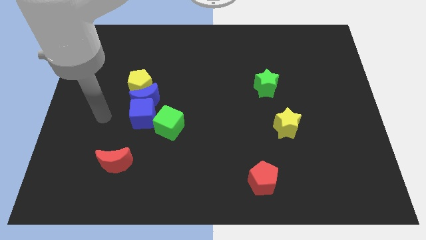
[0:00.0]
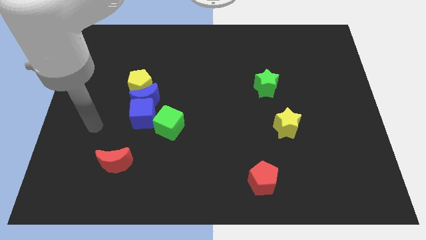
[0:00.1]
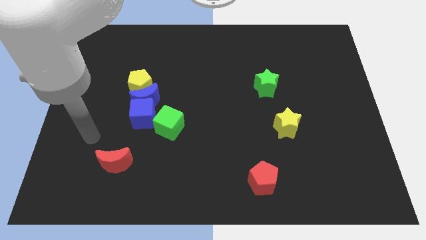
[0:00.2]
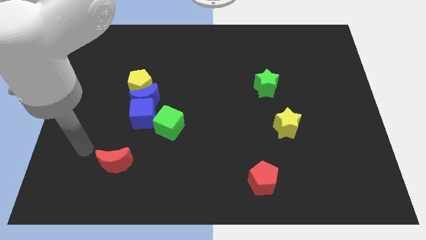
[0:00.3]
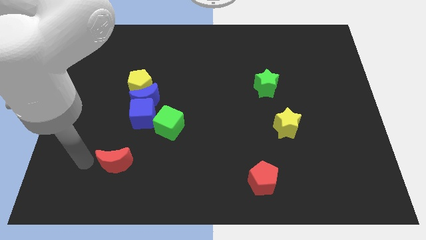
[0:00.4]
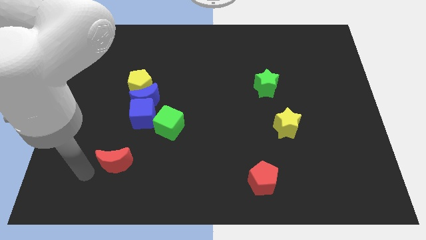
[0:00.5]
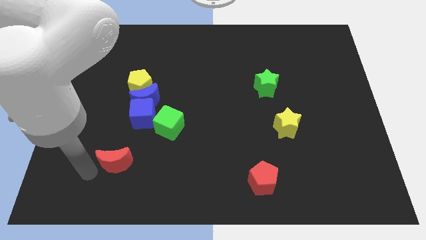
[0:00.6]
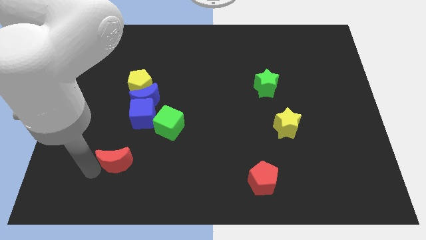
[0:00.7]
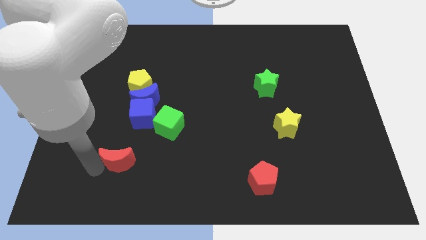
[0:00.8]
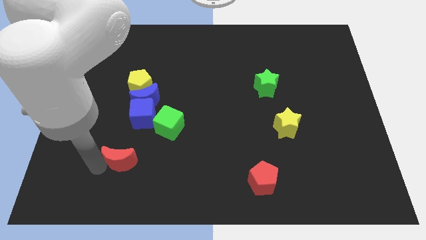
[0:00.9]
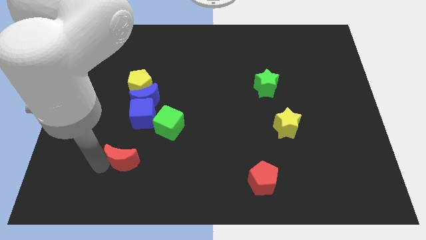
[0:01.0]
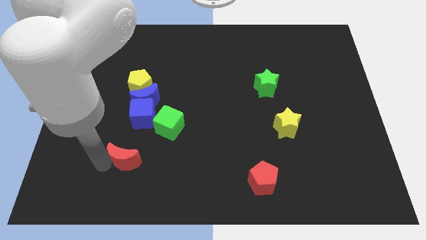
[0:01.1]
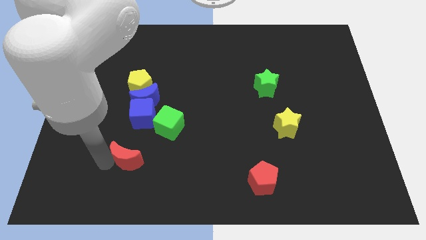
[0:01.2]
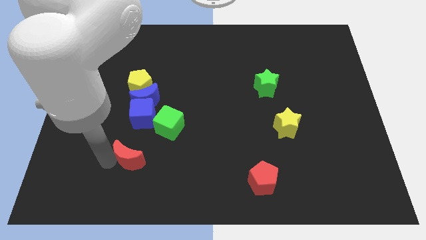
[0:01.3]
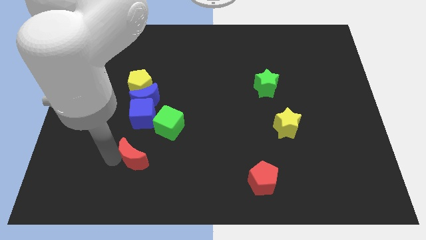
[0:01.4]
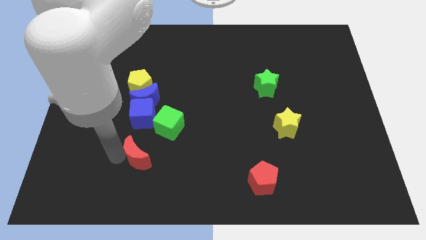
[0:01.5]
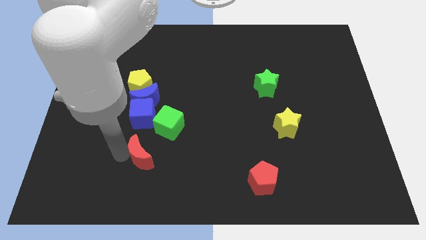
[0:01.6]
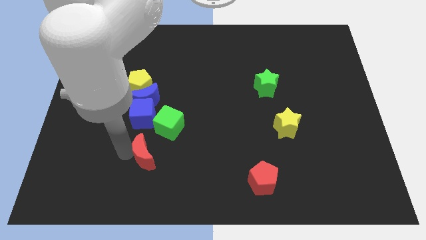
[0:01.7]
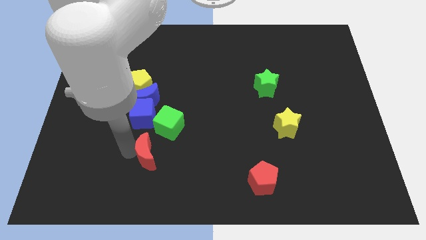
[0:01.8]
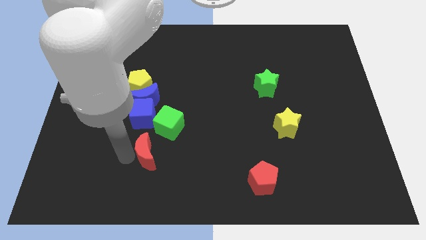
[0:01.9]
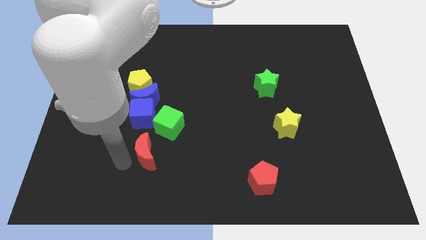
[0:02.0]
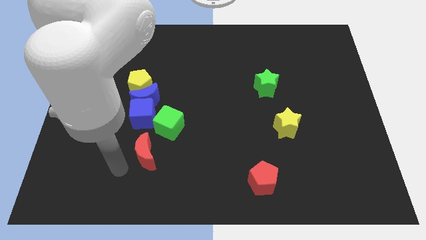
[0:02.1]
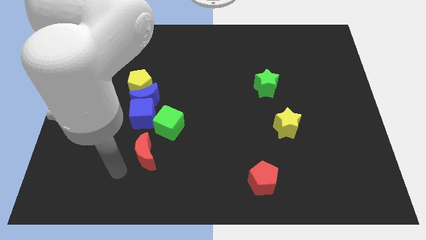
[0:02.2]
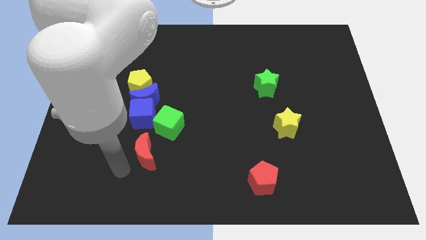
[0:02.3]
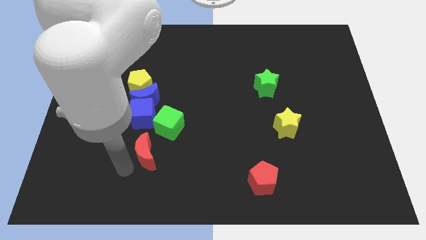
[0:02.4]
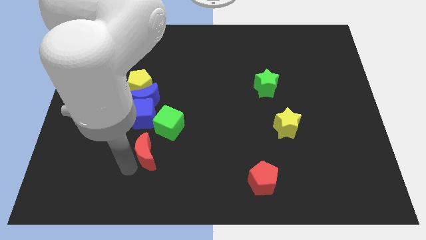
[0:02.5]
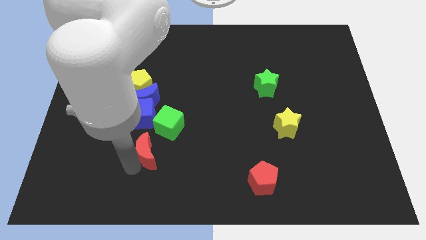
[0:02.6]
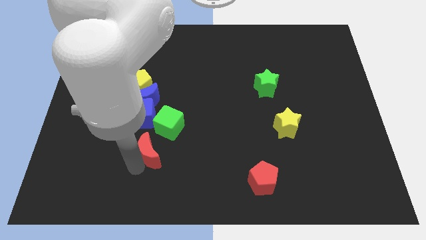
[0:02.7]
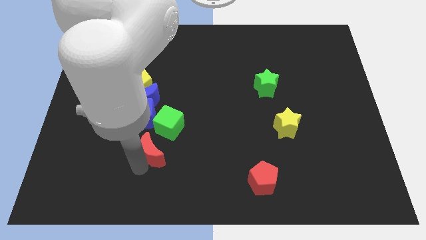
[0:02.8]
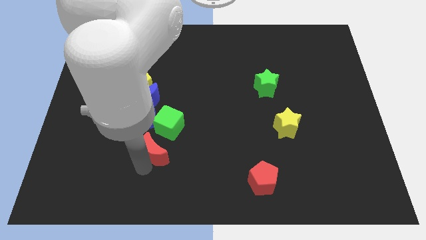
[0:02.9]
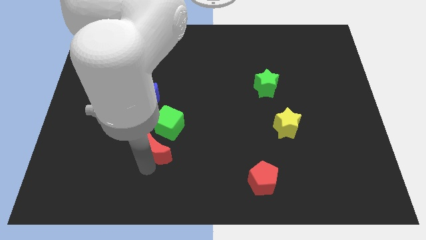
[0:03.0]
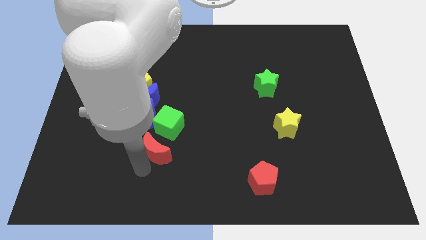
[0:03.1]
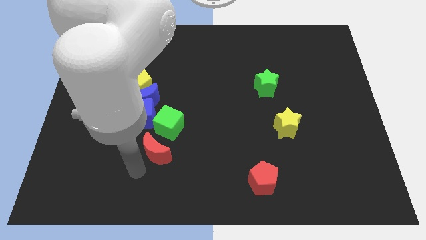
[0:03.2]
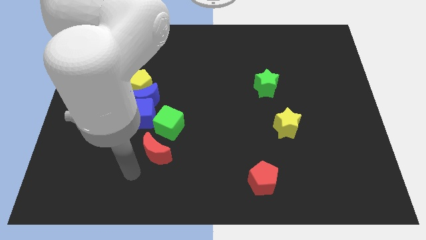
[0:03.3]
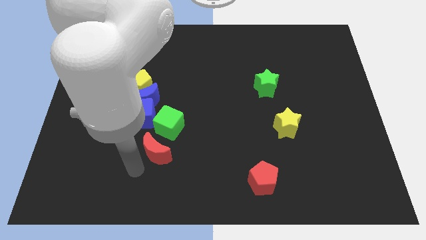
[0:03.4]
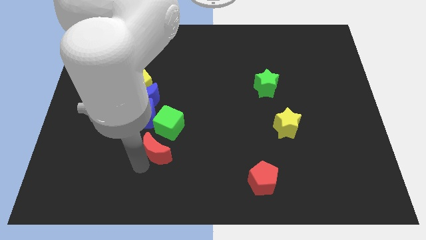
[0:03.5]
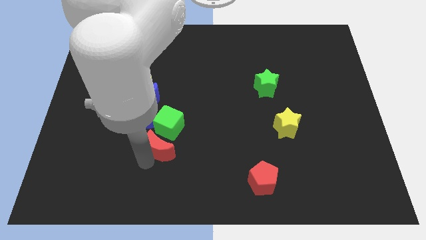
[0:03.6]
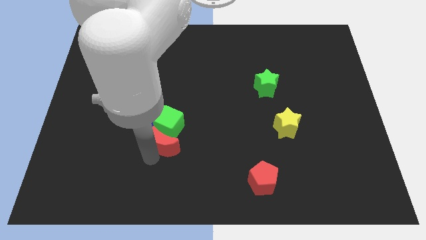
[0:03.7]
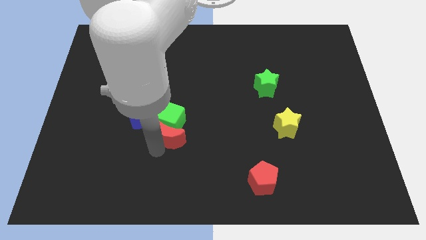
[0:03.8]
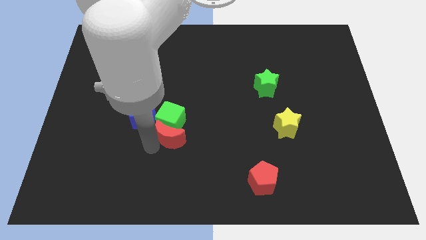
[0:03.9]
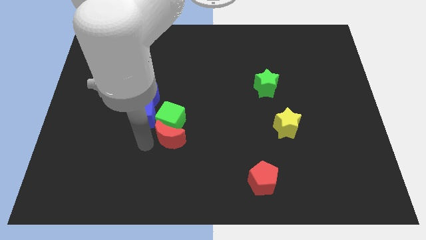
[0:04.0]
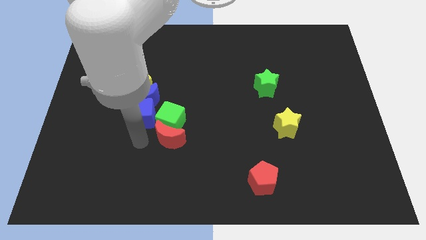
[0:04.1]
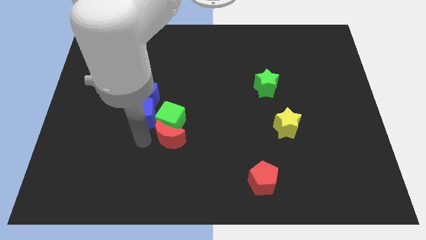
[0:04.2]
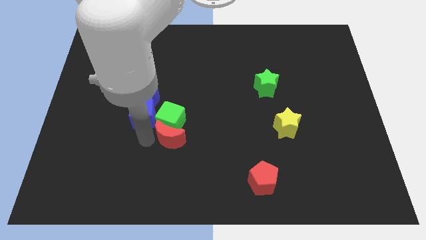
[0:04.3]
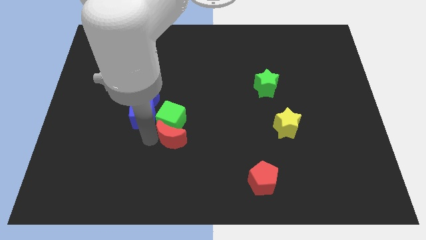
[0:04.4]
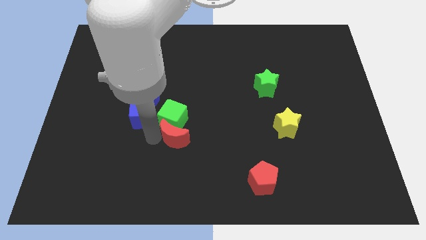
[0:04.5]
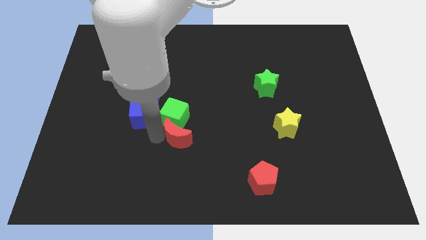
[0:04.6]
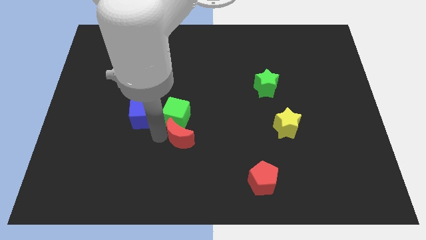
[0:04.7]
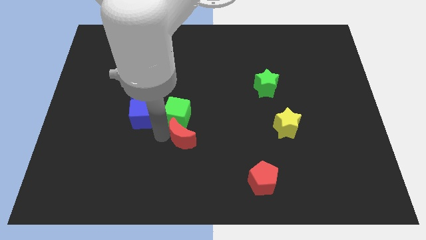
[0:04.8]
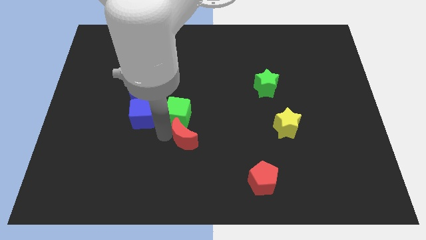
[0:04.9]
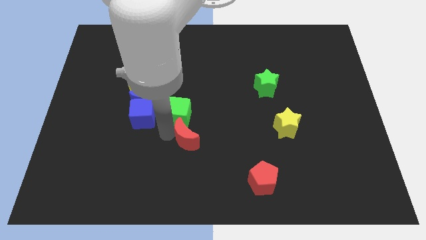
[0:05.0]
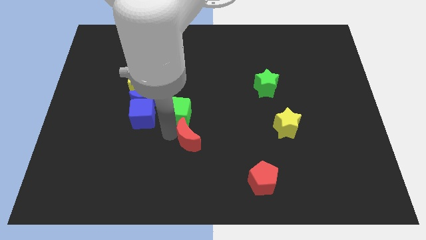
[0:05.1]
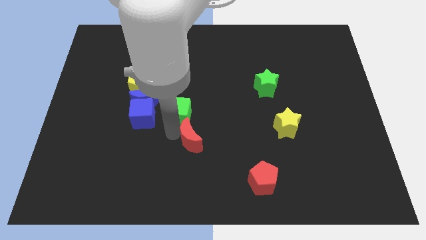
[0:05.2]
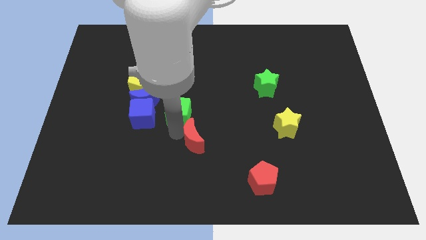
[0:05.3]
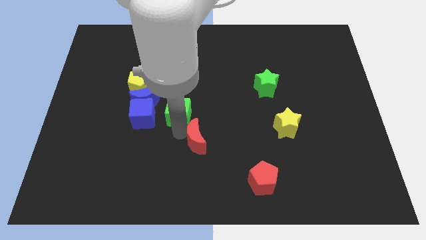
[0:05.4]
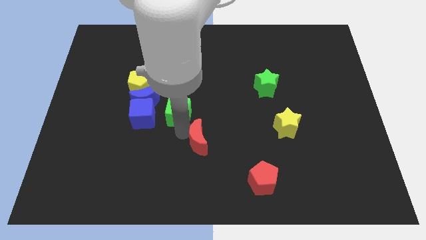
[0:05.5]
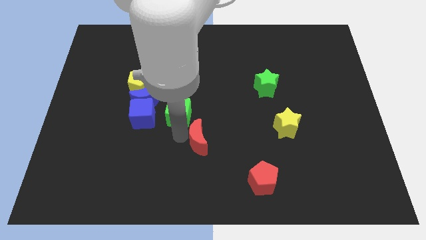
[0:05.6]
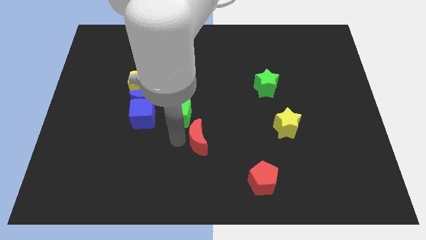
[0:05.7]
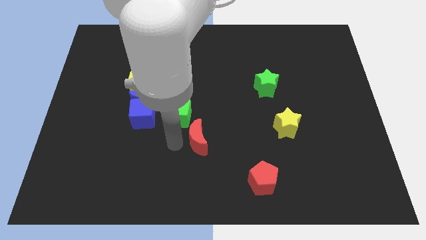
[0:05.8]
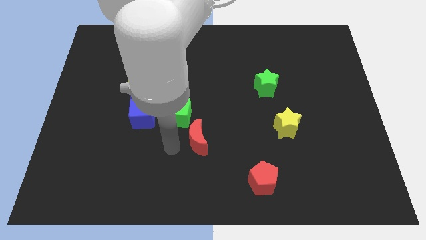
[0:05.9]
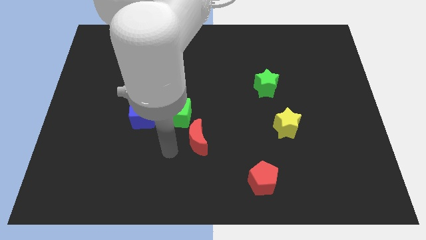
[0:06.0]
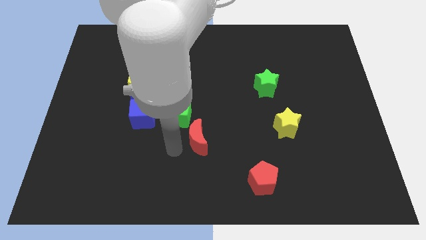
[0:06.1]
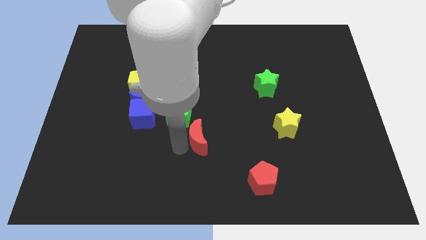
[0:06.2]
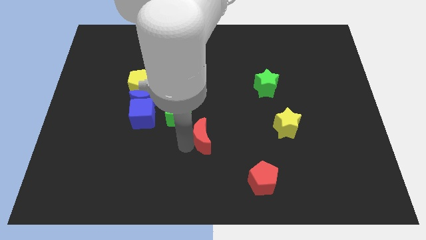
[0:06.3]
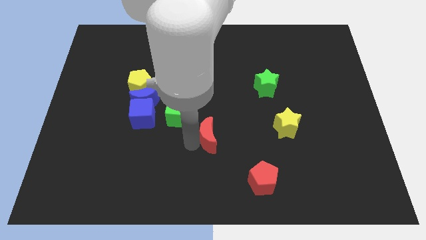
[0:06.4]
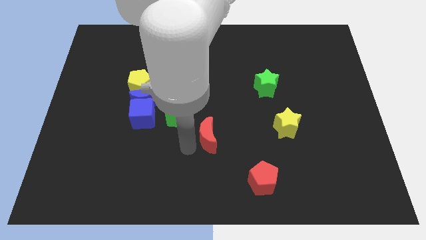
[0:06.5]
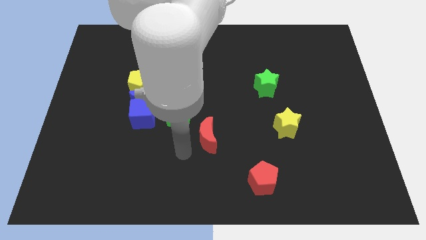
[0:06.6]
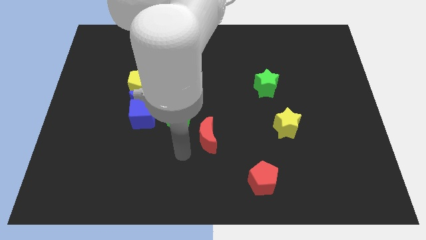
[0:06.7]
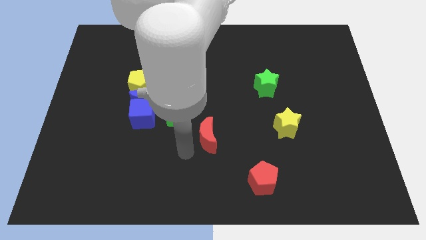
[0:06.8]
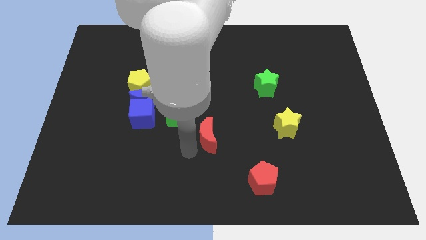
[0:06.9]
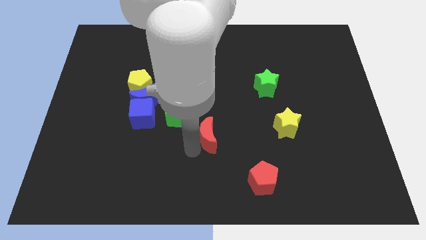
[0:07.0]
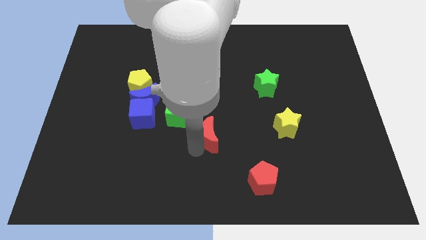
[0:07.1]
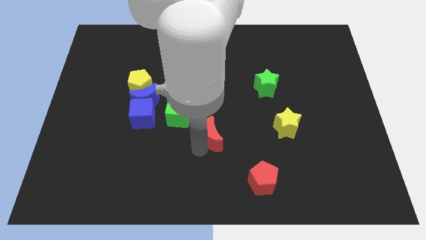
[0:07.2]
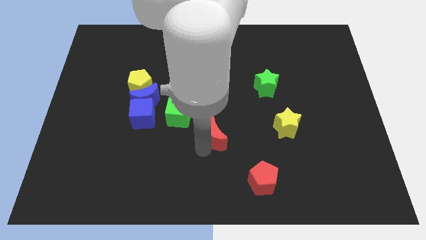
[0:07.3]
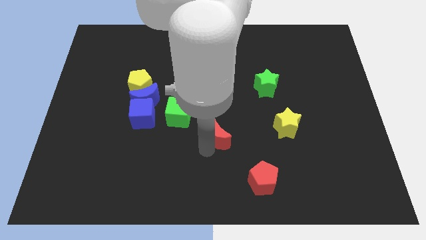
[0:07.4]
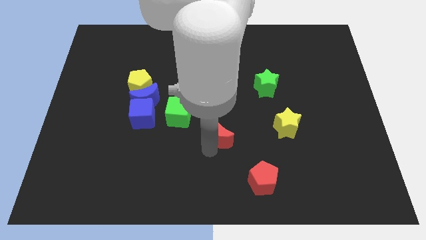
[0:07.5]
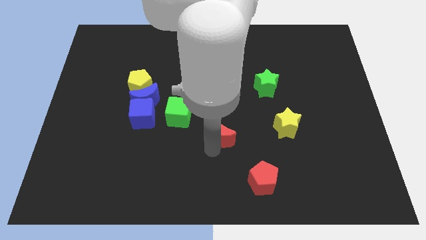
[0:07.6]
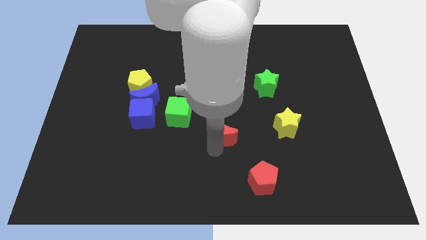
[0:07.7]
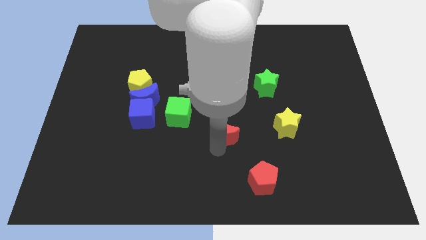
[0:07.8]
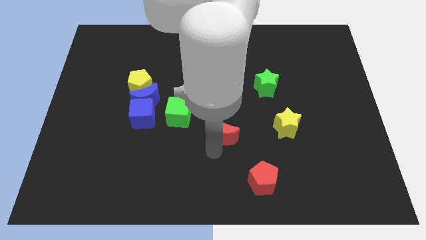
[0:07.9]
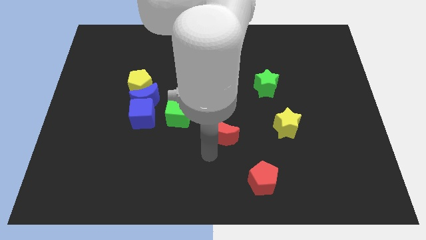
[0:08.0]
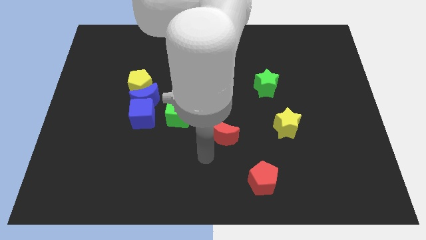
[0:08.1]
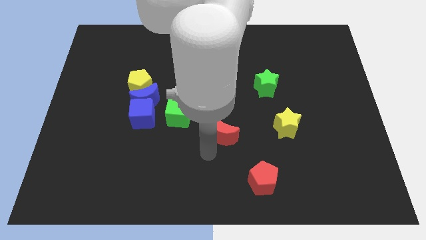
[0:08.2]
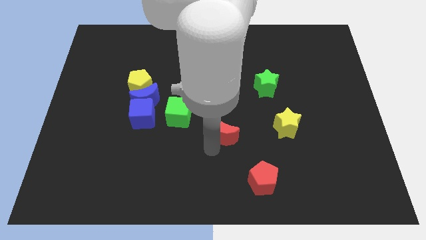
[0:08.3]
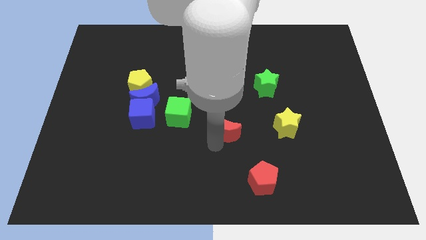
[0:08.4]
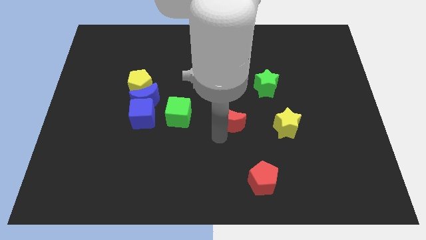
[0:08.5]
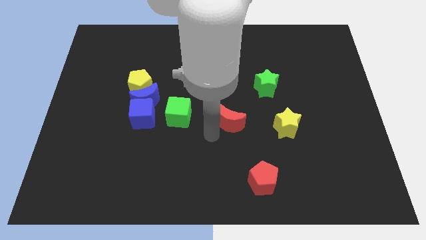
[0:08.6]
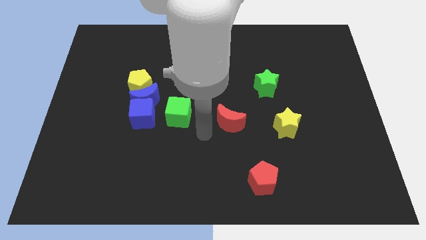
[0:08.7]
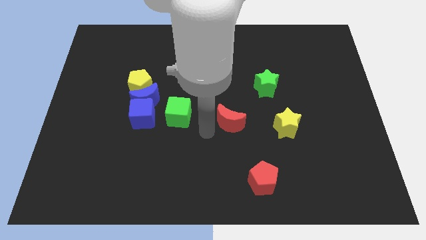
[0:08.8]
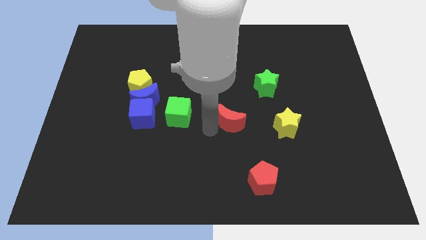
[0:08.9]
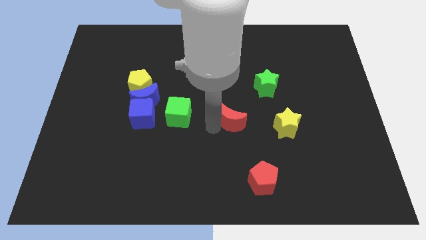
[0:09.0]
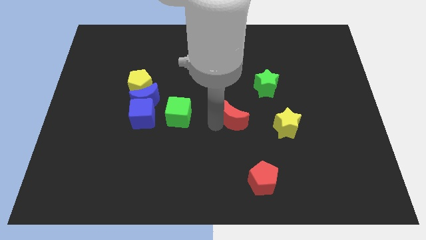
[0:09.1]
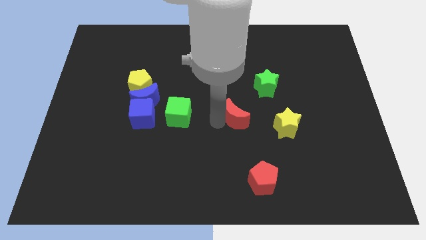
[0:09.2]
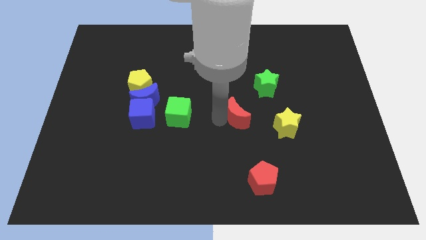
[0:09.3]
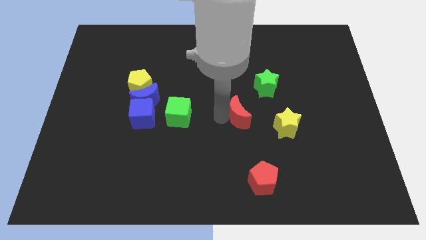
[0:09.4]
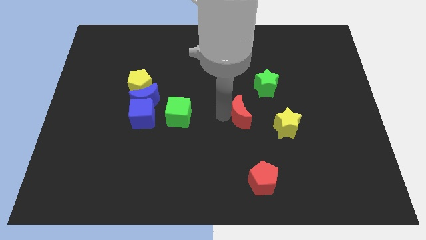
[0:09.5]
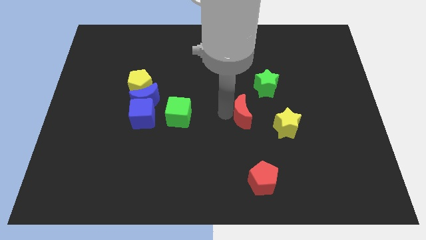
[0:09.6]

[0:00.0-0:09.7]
put the red moon to the top left side of the yellow star
